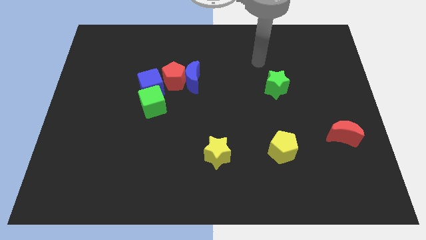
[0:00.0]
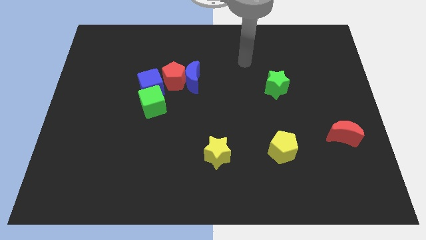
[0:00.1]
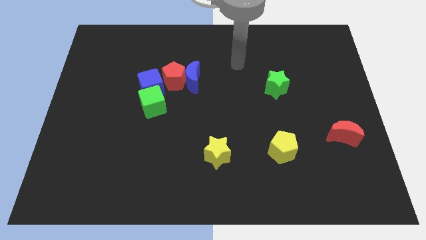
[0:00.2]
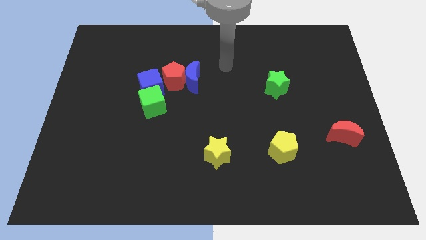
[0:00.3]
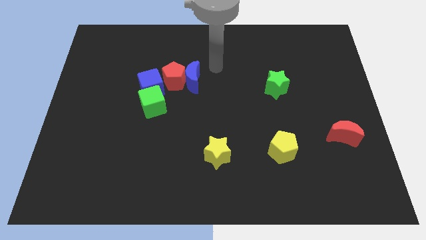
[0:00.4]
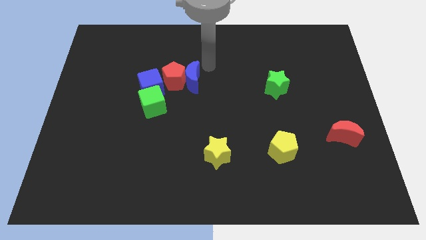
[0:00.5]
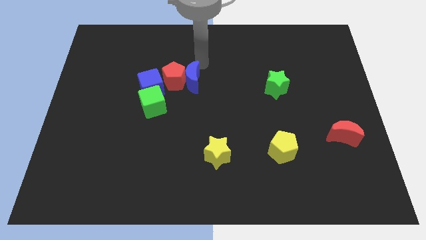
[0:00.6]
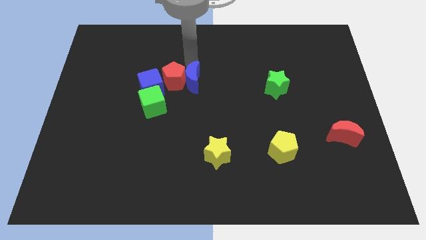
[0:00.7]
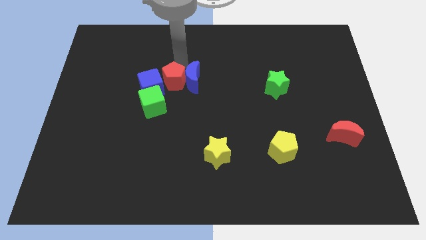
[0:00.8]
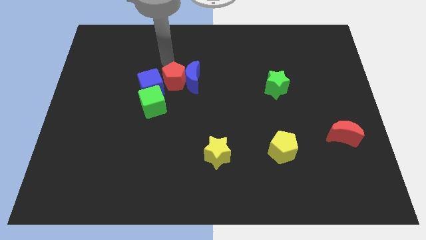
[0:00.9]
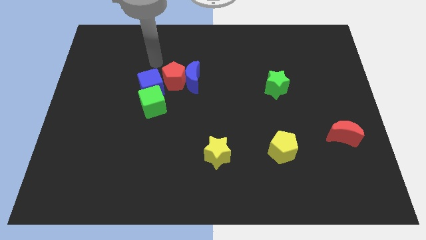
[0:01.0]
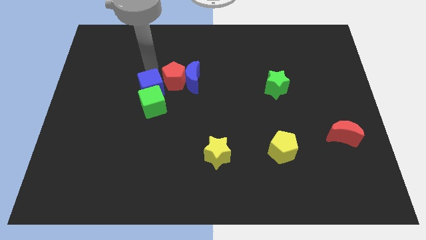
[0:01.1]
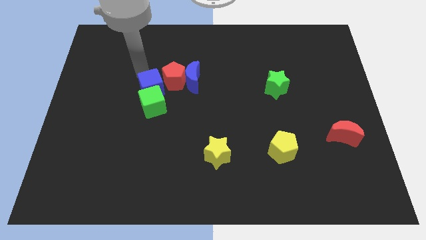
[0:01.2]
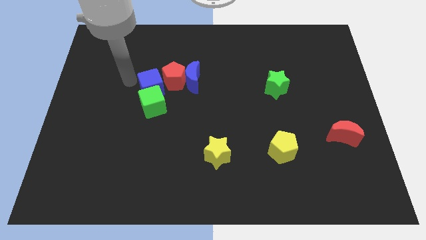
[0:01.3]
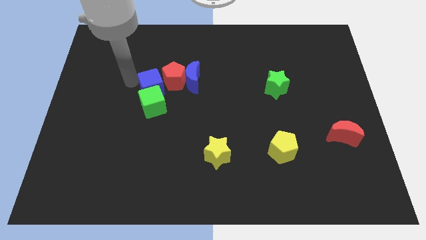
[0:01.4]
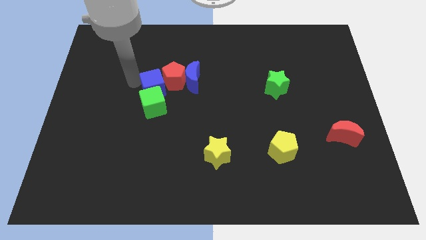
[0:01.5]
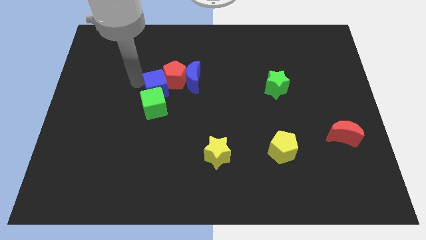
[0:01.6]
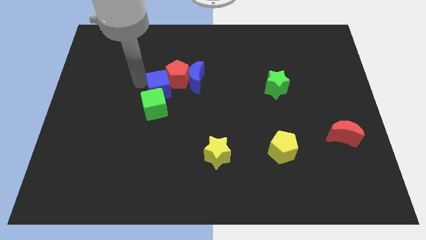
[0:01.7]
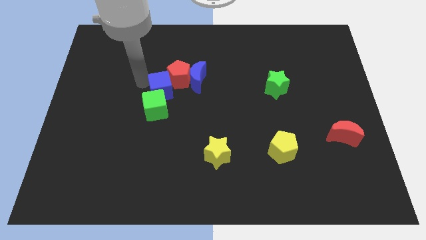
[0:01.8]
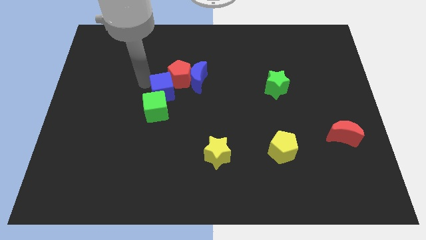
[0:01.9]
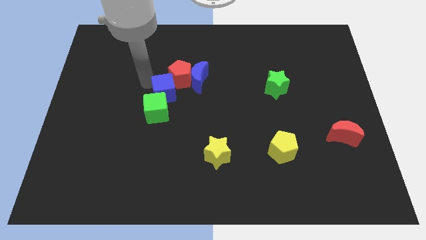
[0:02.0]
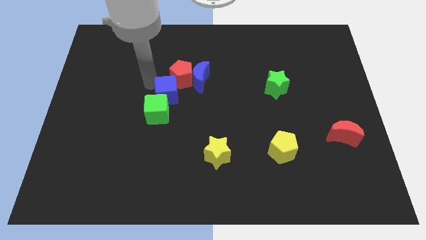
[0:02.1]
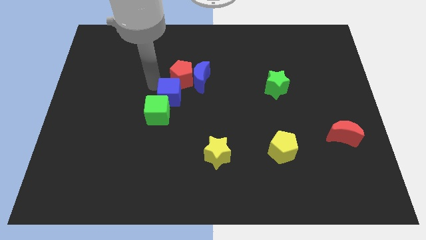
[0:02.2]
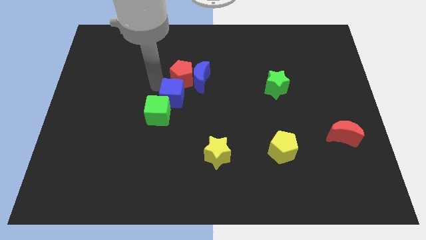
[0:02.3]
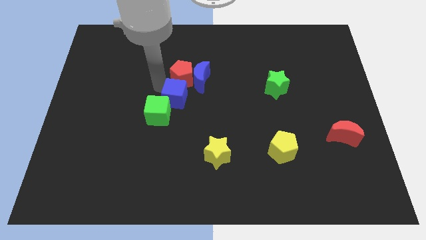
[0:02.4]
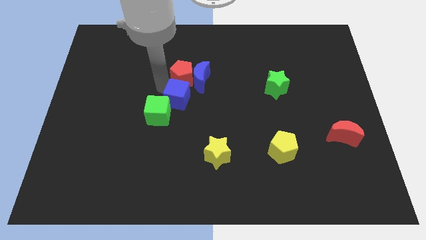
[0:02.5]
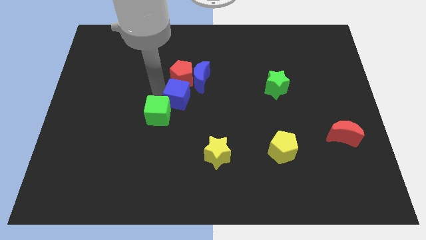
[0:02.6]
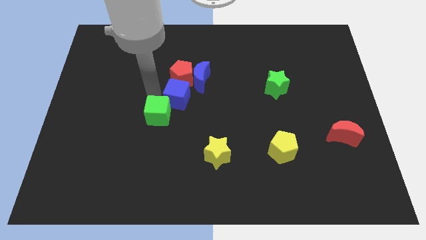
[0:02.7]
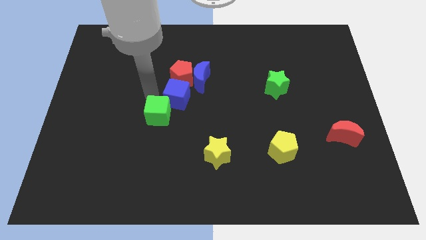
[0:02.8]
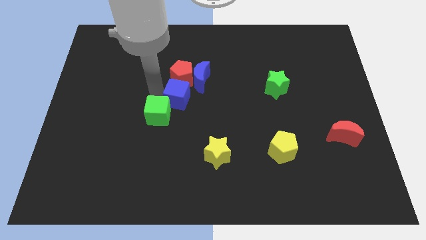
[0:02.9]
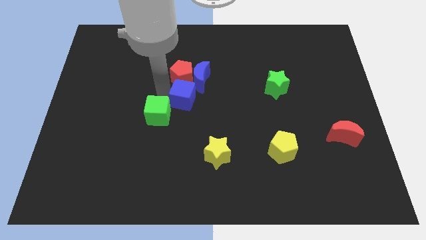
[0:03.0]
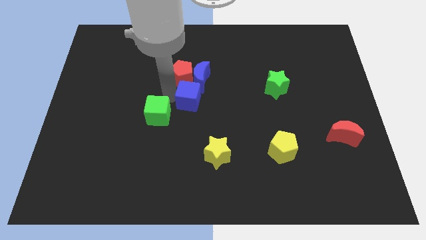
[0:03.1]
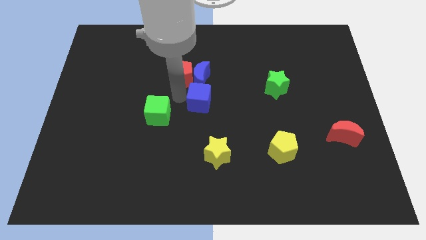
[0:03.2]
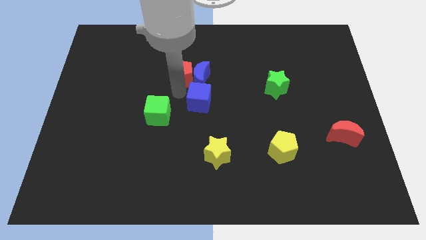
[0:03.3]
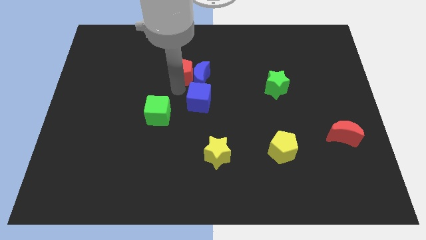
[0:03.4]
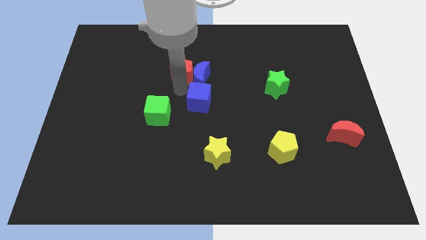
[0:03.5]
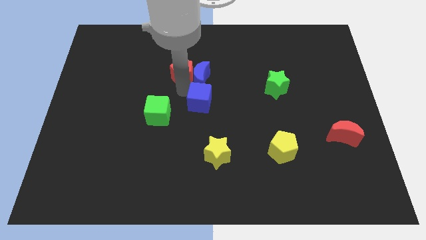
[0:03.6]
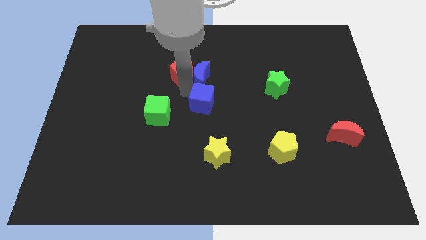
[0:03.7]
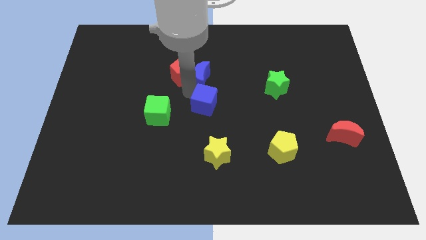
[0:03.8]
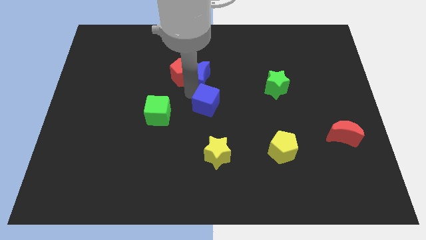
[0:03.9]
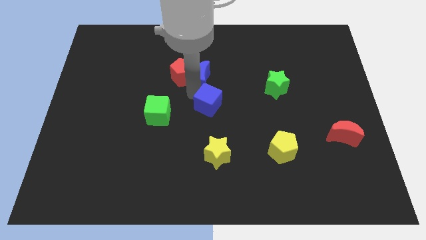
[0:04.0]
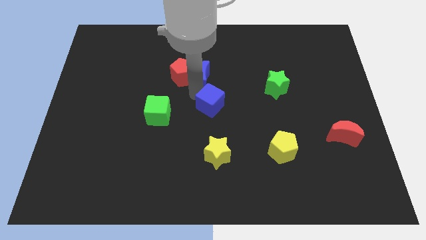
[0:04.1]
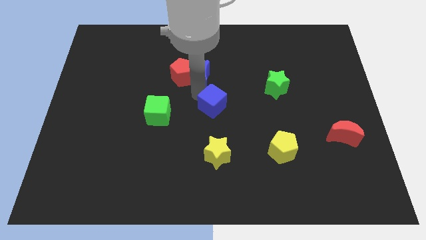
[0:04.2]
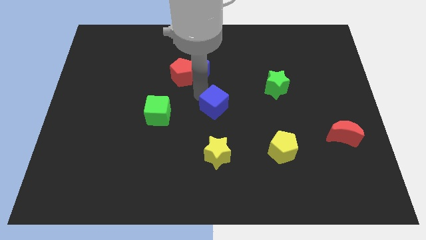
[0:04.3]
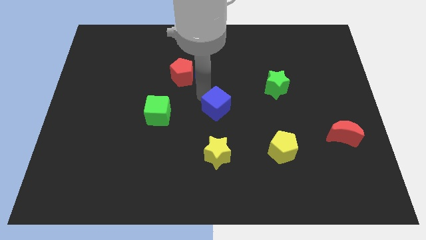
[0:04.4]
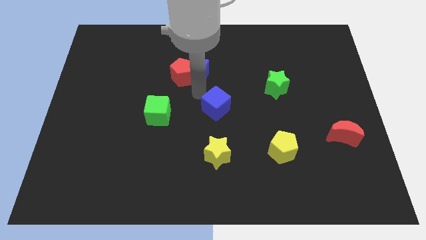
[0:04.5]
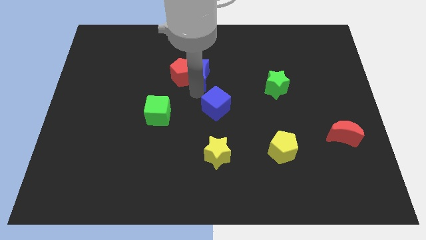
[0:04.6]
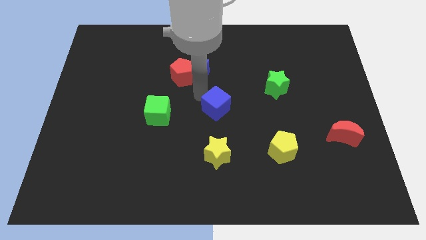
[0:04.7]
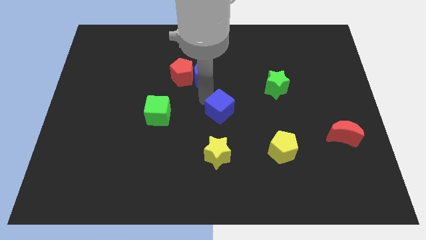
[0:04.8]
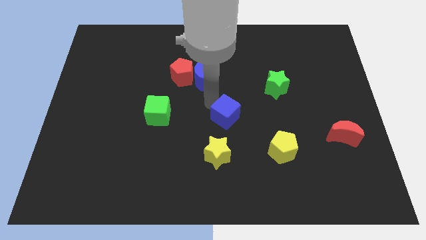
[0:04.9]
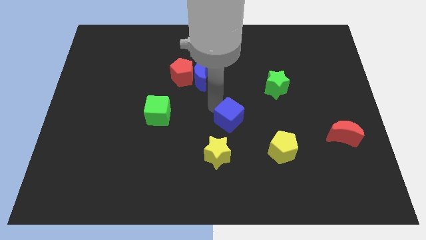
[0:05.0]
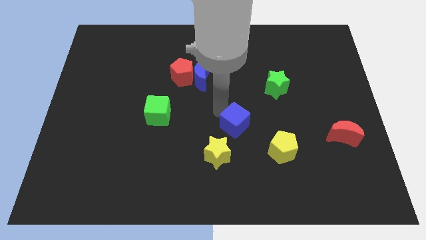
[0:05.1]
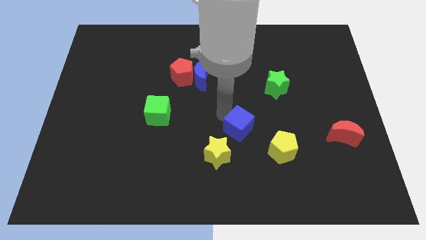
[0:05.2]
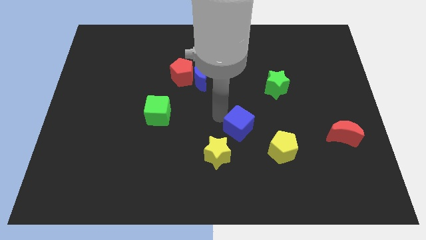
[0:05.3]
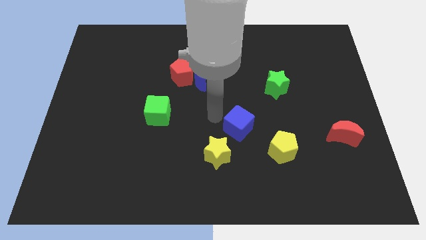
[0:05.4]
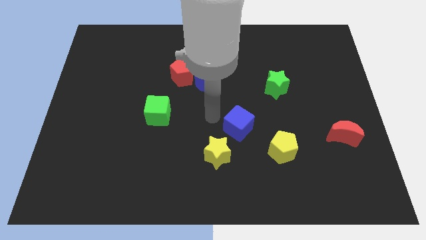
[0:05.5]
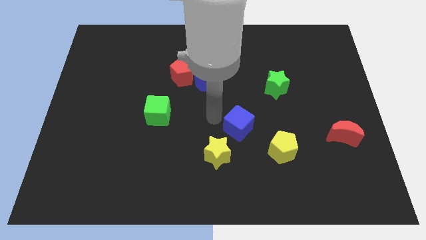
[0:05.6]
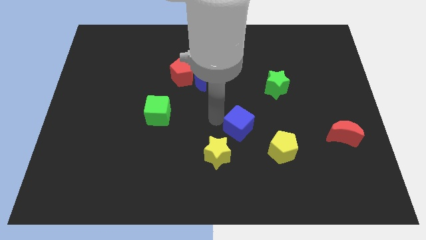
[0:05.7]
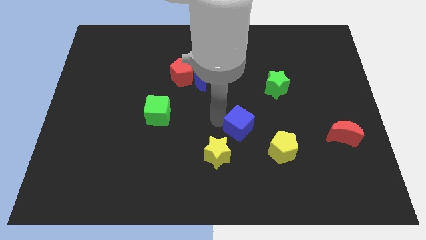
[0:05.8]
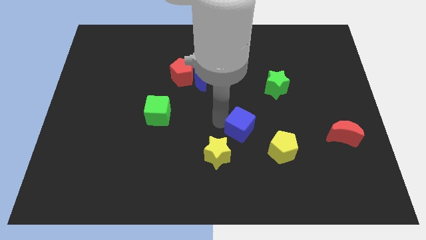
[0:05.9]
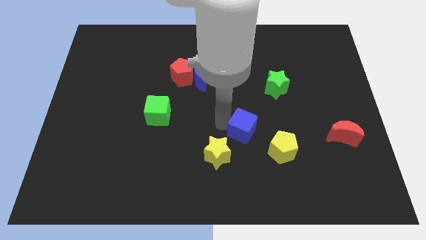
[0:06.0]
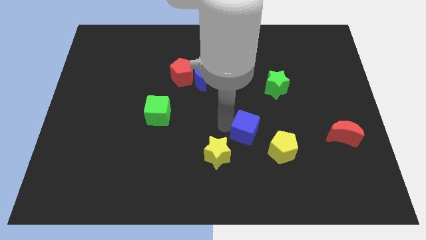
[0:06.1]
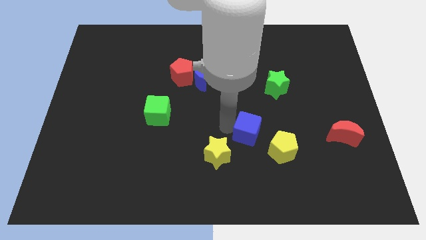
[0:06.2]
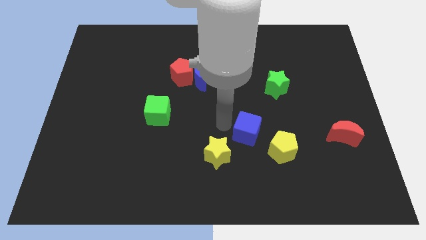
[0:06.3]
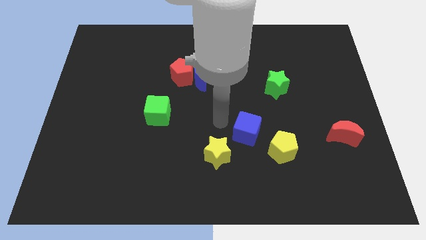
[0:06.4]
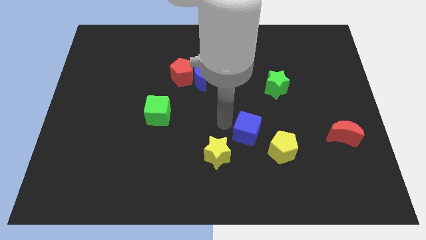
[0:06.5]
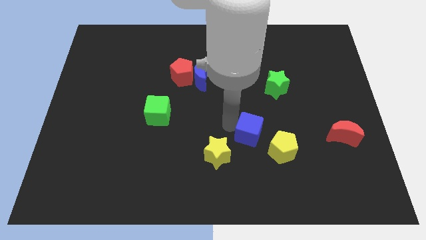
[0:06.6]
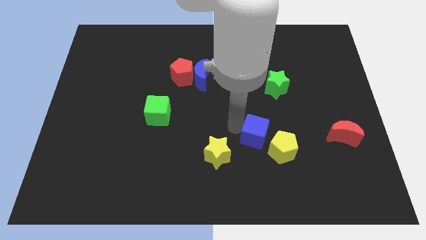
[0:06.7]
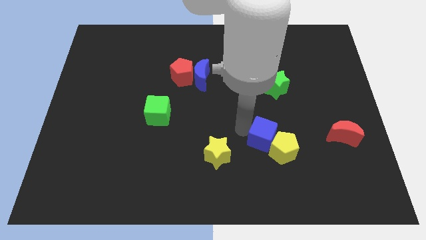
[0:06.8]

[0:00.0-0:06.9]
slide the blue cube towards the yellow pentagon
